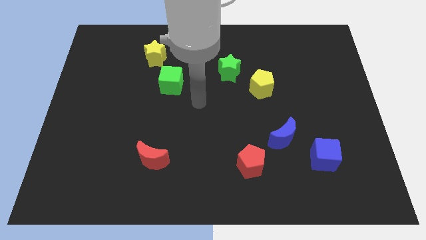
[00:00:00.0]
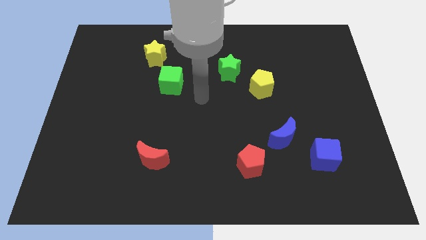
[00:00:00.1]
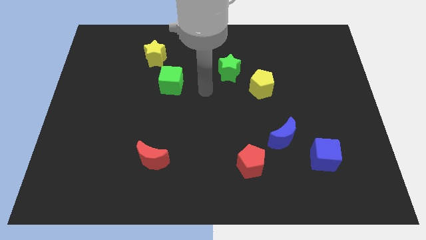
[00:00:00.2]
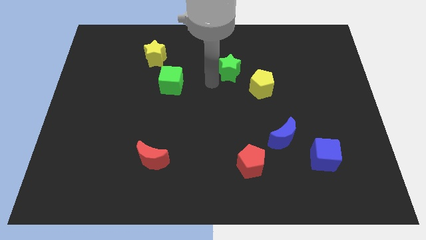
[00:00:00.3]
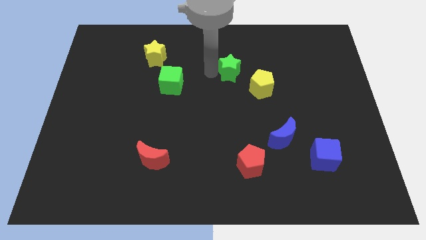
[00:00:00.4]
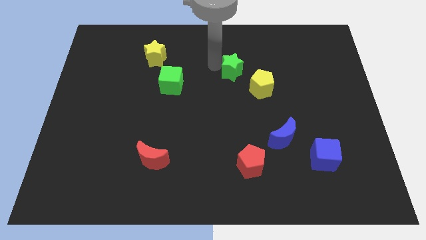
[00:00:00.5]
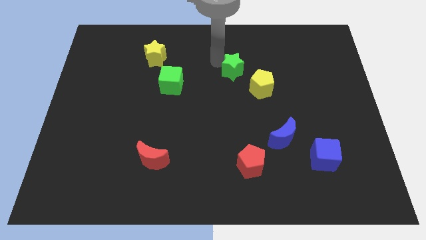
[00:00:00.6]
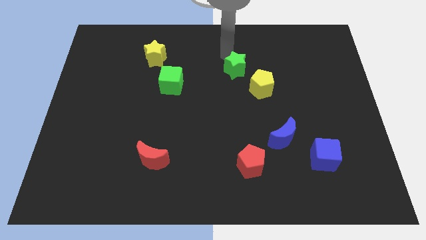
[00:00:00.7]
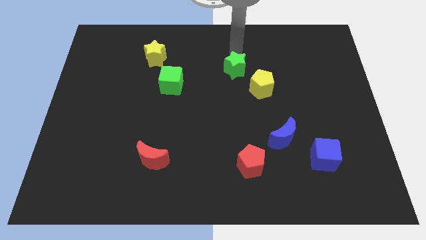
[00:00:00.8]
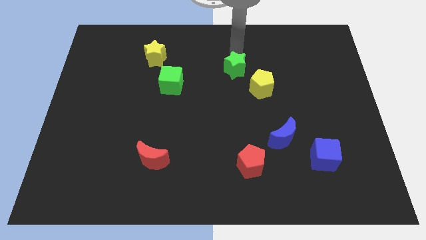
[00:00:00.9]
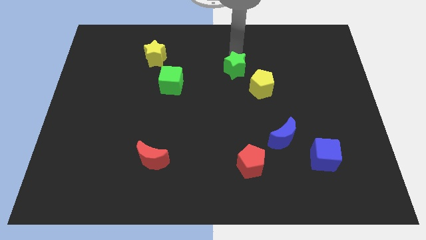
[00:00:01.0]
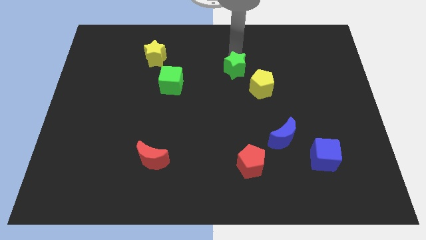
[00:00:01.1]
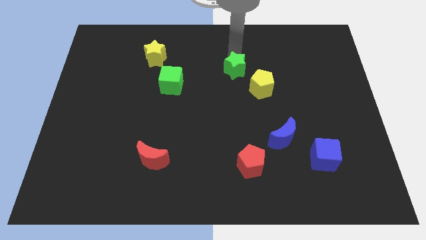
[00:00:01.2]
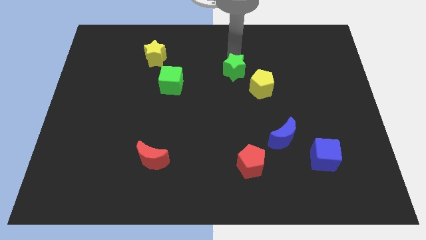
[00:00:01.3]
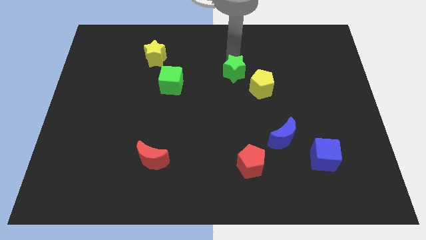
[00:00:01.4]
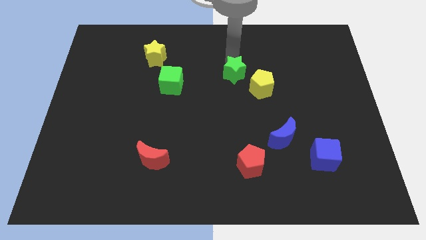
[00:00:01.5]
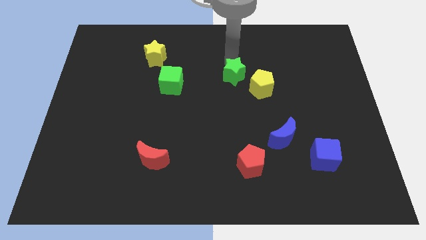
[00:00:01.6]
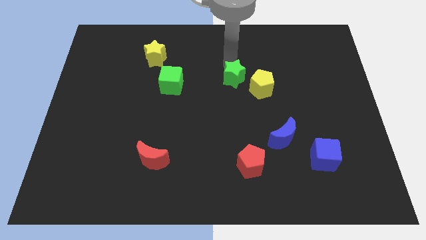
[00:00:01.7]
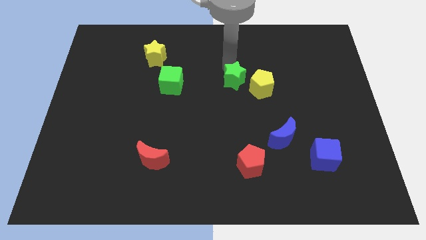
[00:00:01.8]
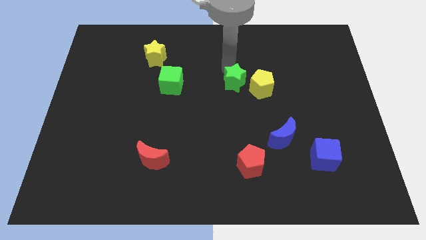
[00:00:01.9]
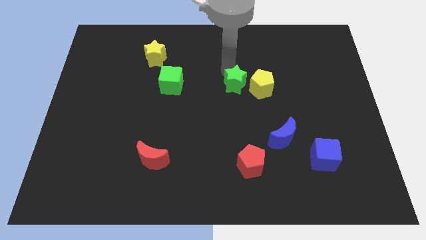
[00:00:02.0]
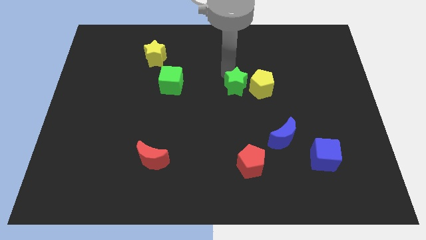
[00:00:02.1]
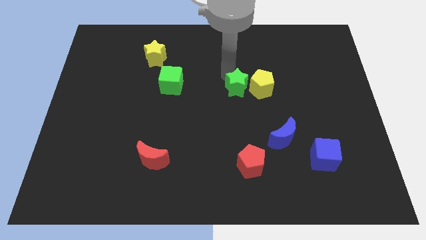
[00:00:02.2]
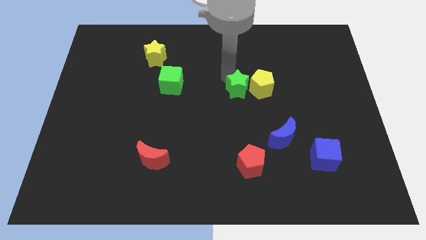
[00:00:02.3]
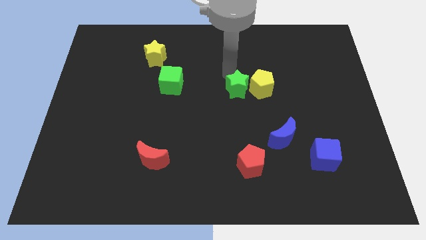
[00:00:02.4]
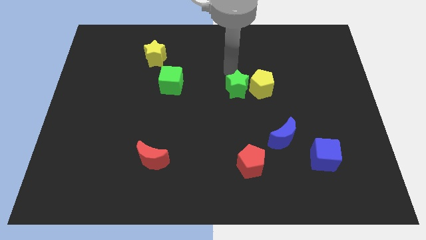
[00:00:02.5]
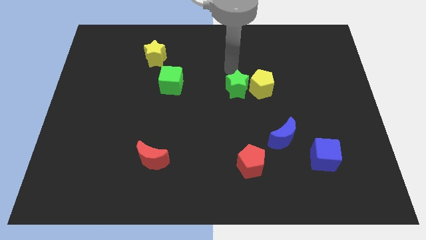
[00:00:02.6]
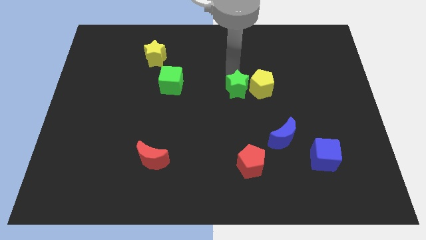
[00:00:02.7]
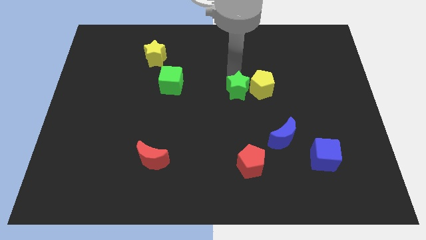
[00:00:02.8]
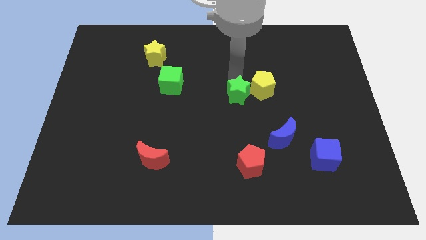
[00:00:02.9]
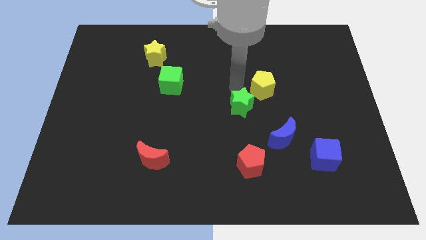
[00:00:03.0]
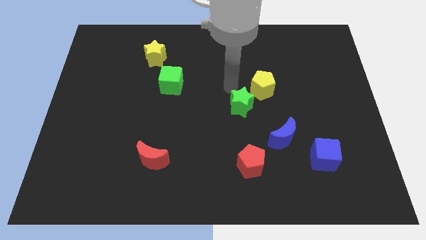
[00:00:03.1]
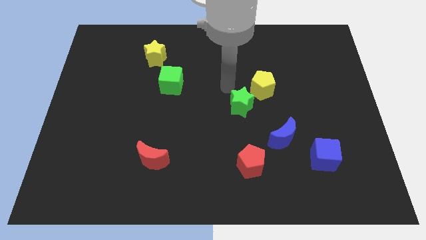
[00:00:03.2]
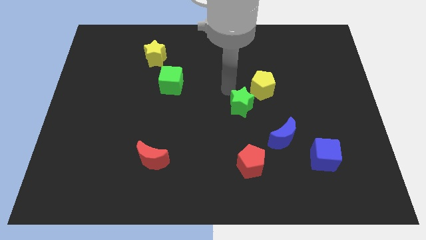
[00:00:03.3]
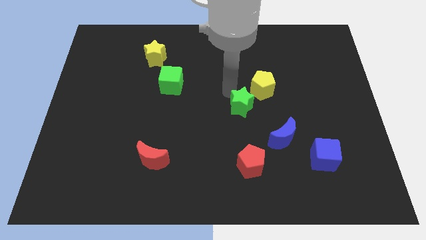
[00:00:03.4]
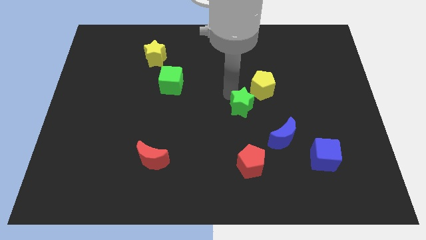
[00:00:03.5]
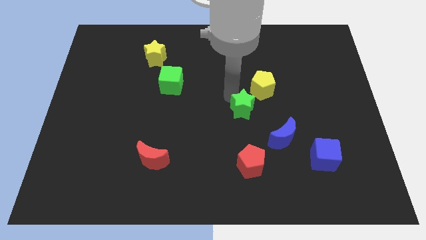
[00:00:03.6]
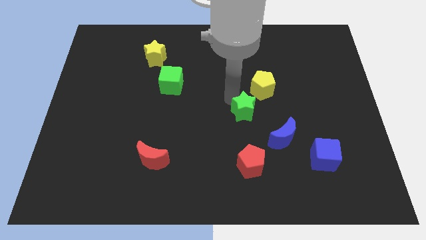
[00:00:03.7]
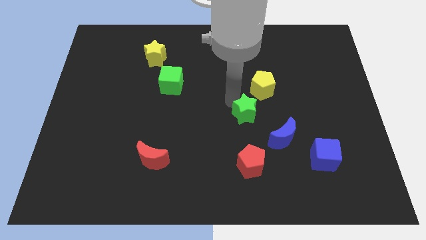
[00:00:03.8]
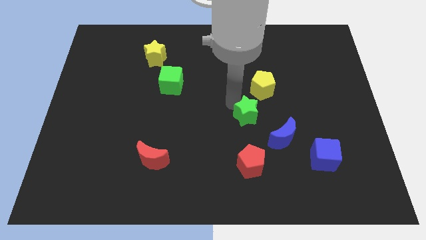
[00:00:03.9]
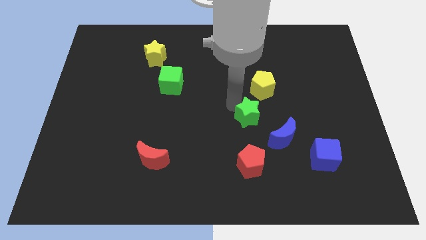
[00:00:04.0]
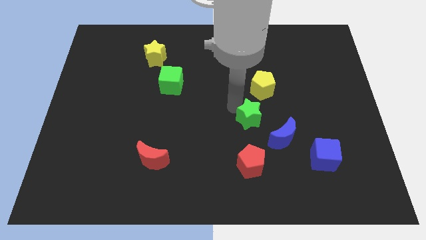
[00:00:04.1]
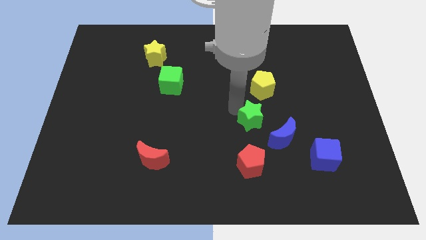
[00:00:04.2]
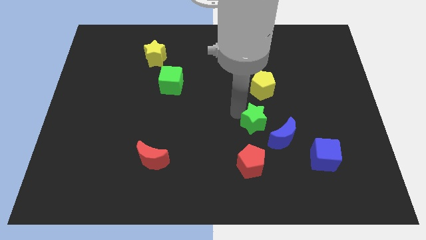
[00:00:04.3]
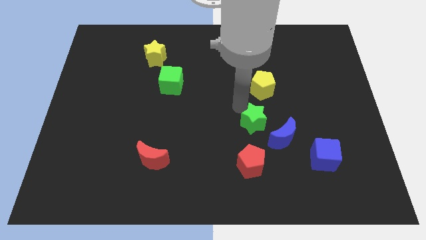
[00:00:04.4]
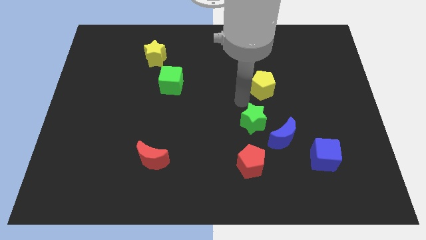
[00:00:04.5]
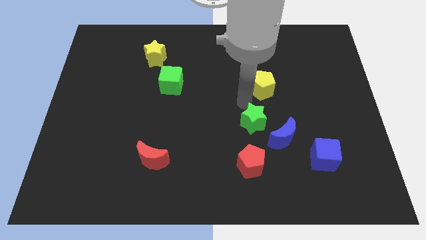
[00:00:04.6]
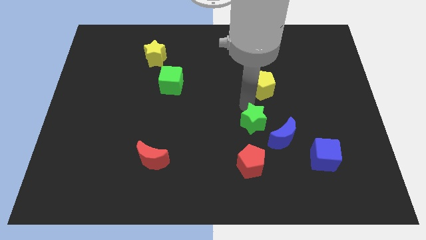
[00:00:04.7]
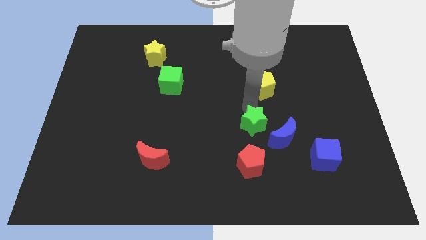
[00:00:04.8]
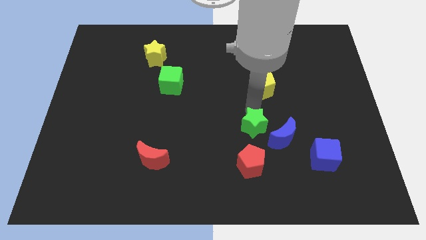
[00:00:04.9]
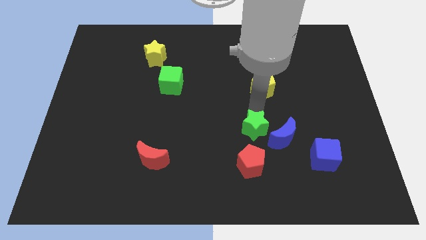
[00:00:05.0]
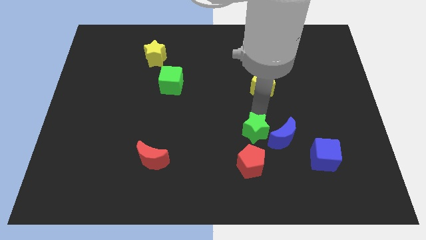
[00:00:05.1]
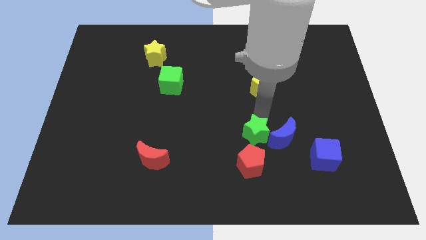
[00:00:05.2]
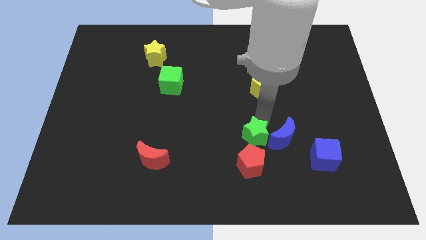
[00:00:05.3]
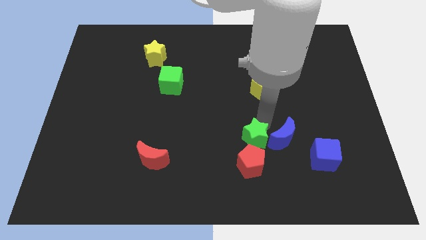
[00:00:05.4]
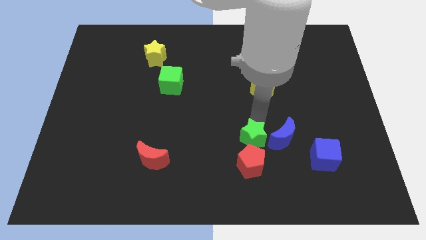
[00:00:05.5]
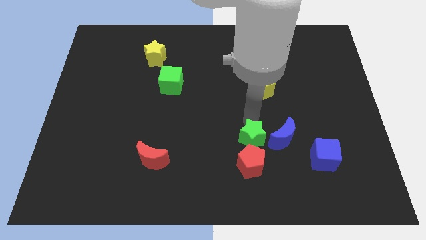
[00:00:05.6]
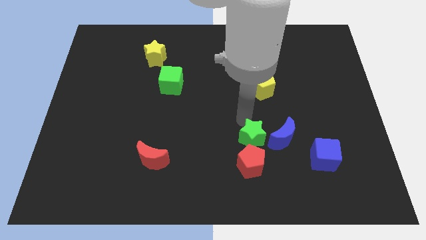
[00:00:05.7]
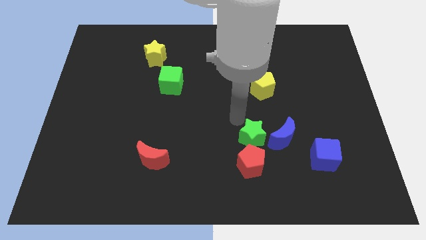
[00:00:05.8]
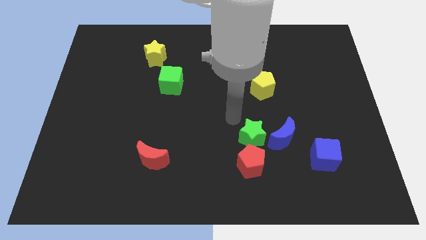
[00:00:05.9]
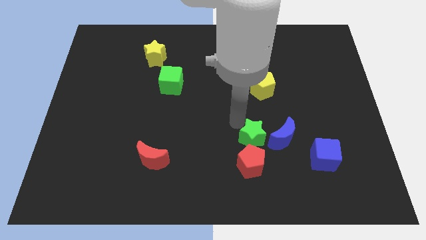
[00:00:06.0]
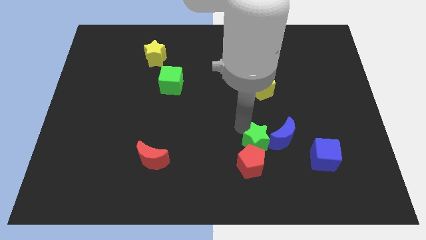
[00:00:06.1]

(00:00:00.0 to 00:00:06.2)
put the green star left of the blue cube

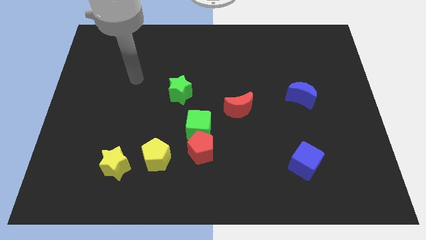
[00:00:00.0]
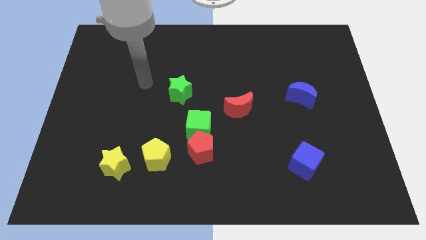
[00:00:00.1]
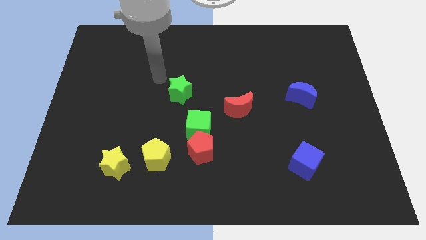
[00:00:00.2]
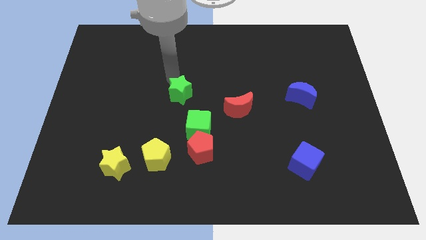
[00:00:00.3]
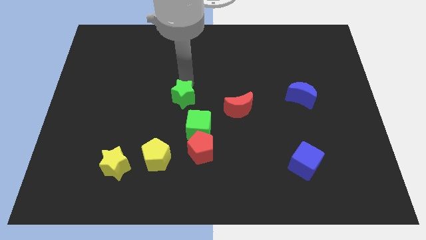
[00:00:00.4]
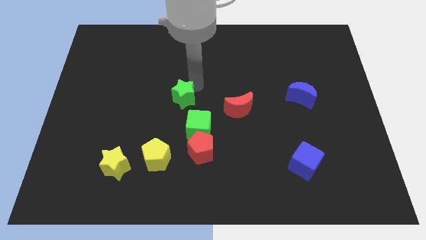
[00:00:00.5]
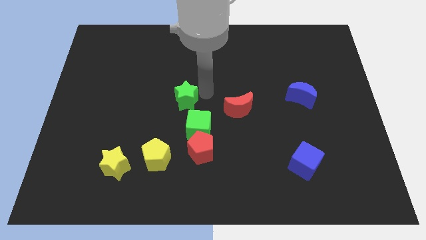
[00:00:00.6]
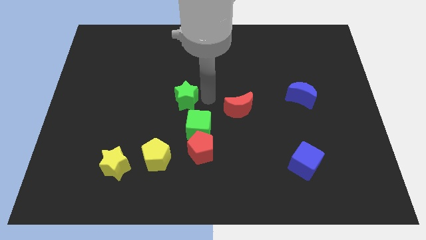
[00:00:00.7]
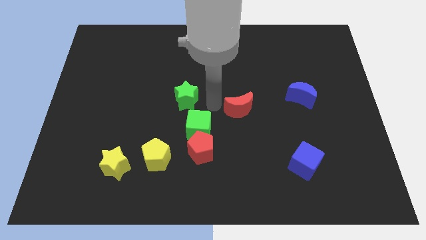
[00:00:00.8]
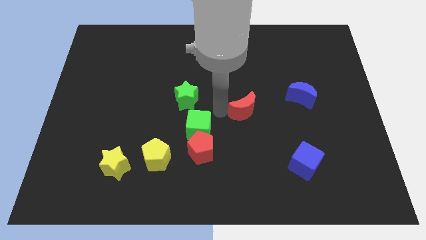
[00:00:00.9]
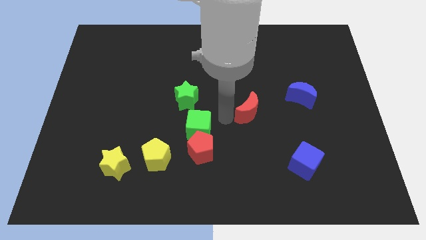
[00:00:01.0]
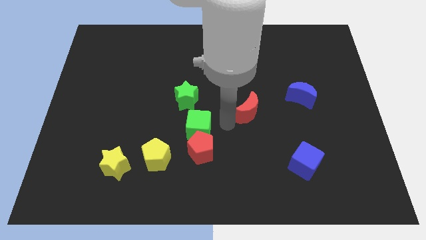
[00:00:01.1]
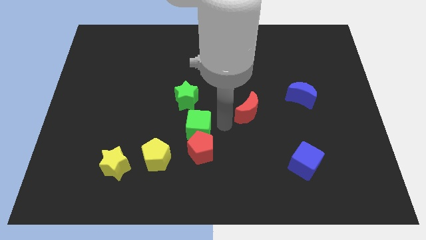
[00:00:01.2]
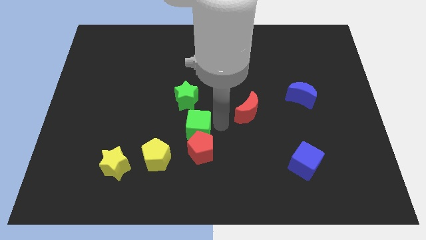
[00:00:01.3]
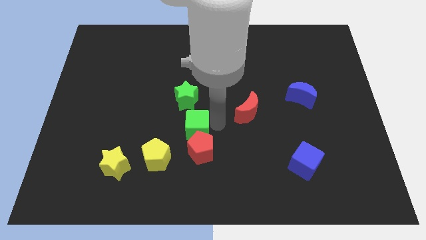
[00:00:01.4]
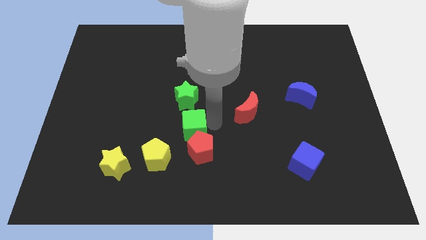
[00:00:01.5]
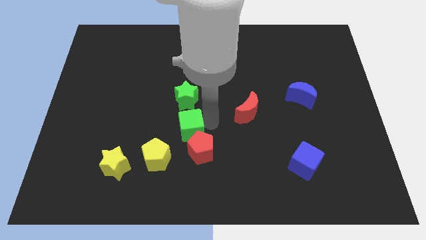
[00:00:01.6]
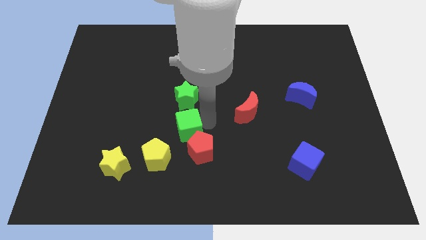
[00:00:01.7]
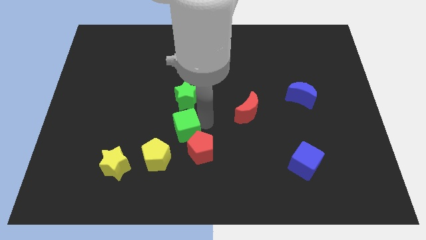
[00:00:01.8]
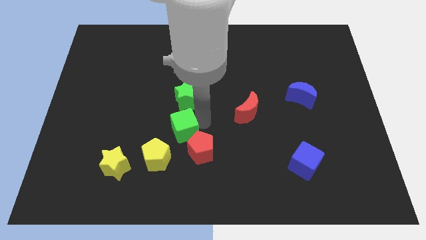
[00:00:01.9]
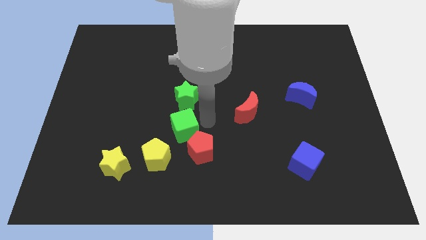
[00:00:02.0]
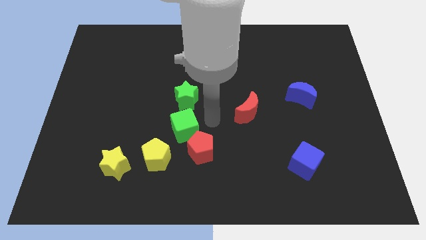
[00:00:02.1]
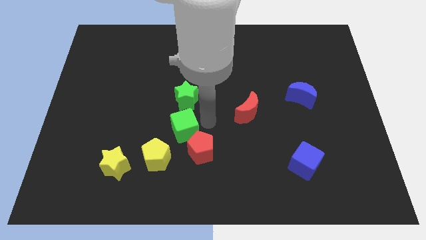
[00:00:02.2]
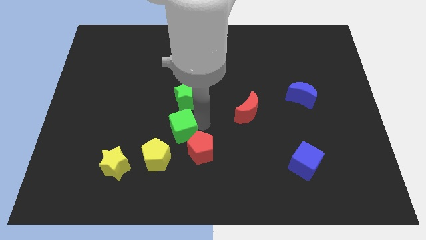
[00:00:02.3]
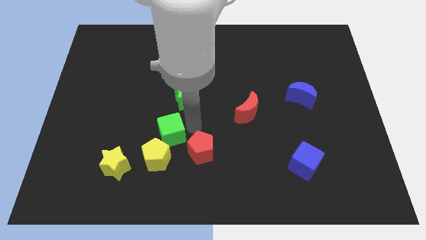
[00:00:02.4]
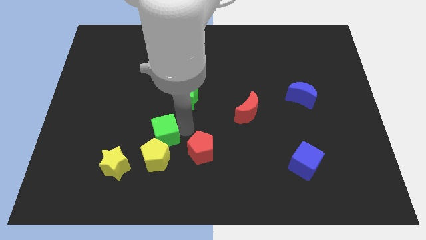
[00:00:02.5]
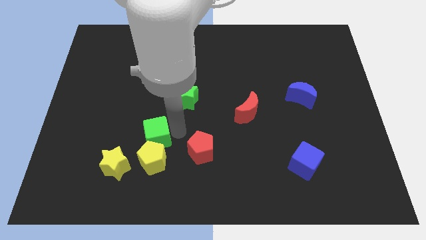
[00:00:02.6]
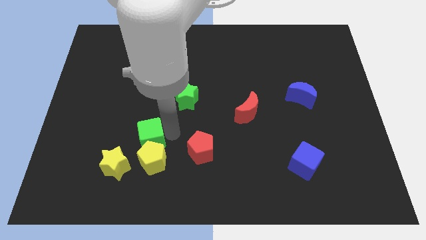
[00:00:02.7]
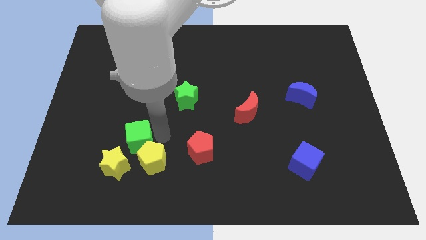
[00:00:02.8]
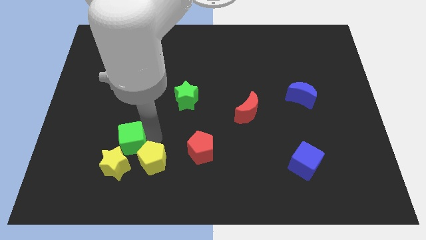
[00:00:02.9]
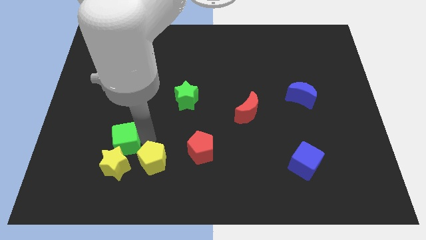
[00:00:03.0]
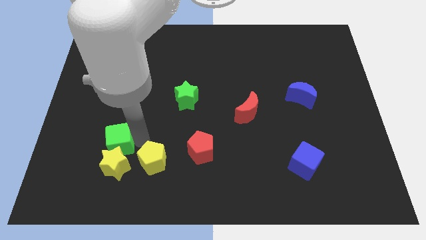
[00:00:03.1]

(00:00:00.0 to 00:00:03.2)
push the green cube diagonally up and to the left of the yellow star
